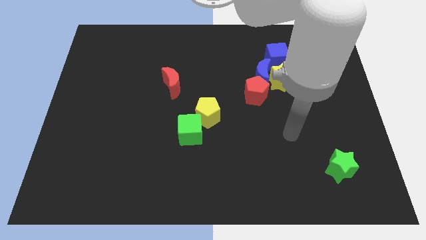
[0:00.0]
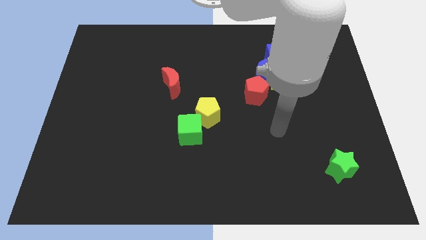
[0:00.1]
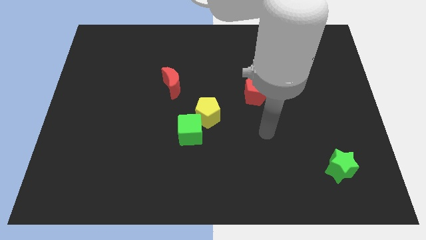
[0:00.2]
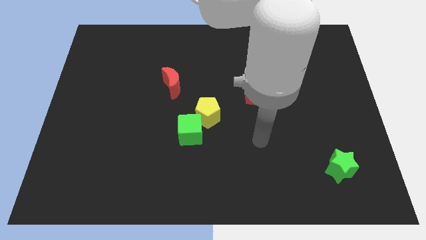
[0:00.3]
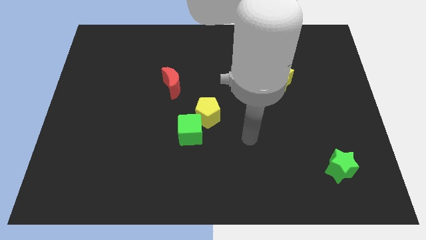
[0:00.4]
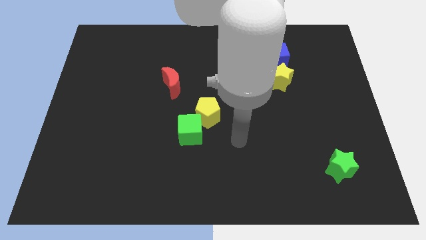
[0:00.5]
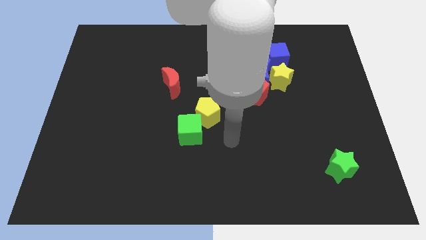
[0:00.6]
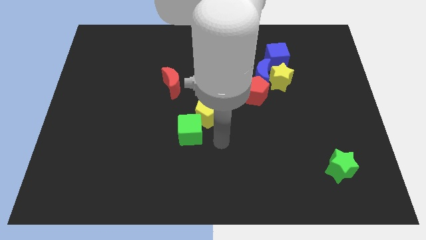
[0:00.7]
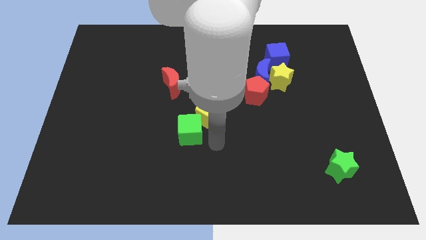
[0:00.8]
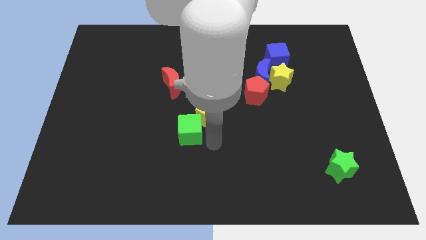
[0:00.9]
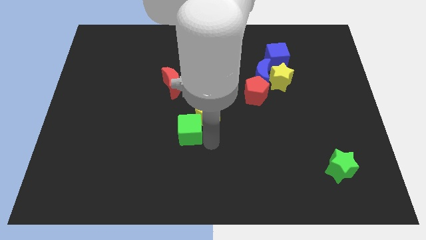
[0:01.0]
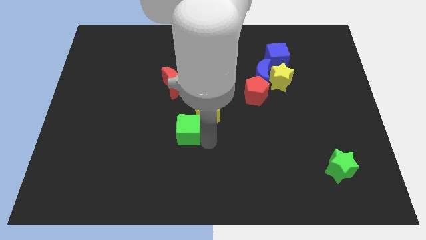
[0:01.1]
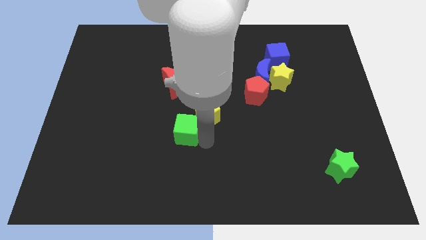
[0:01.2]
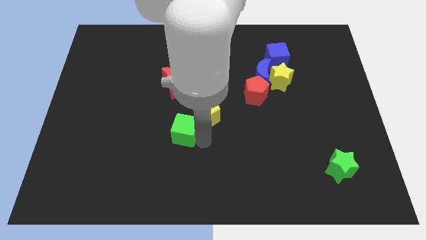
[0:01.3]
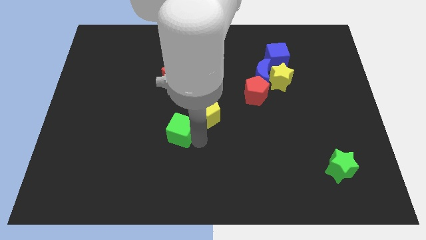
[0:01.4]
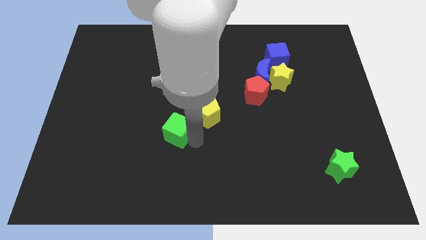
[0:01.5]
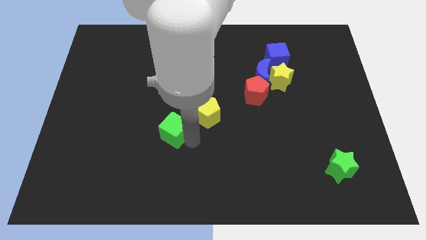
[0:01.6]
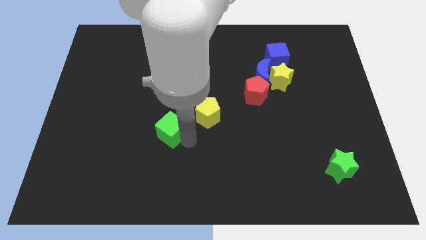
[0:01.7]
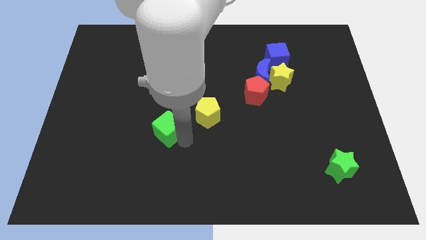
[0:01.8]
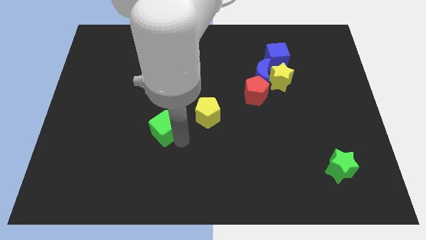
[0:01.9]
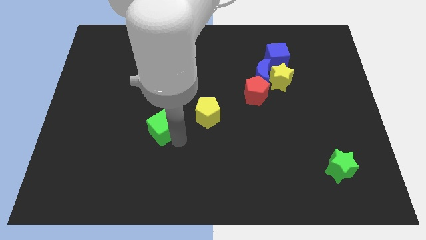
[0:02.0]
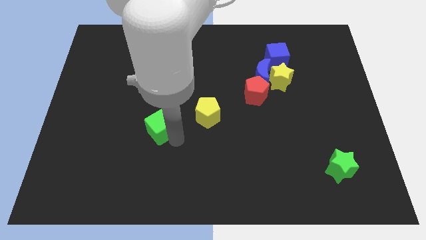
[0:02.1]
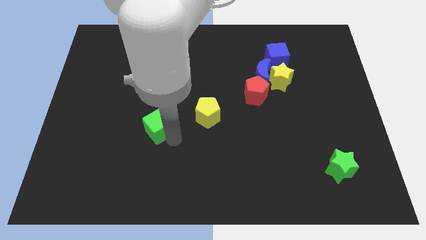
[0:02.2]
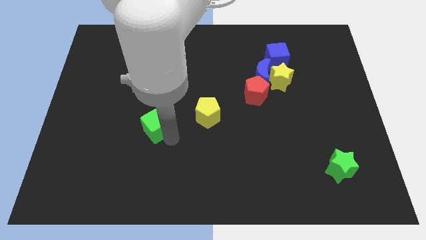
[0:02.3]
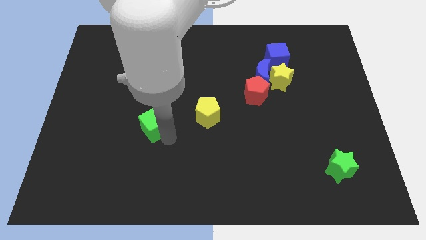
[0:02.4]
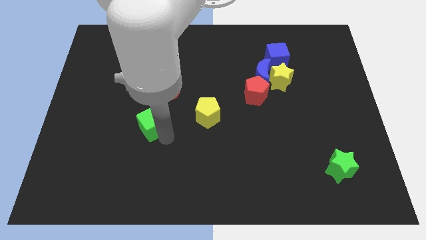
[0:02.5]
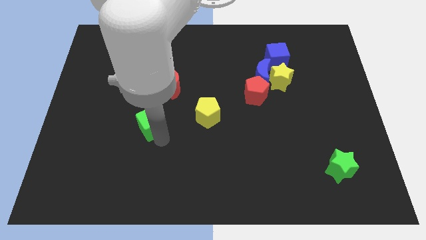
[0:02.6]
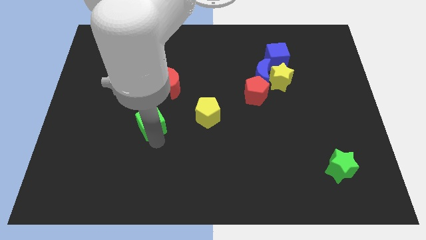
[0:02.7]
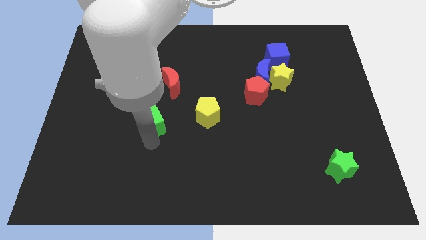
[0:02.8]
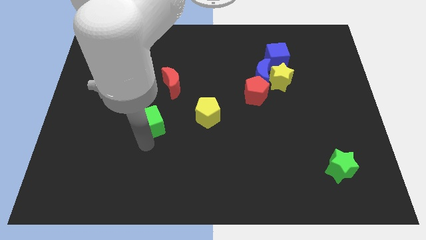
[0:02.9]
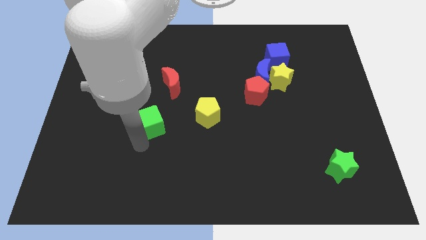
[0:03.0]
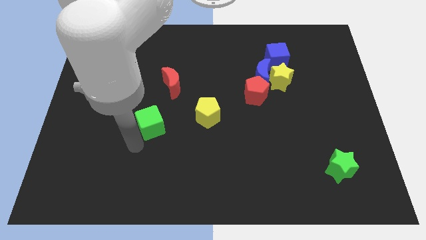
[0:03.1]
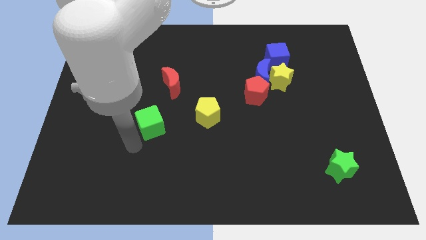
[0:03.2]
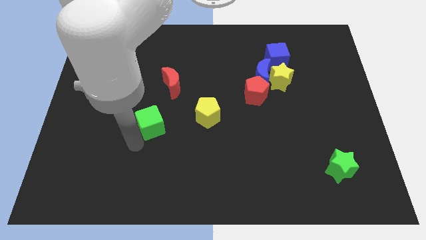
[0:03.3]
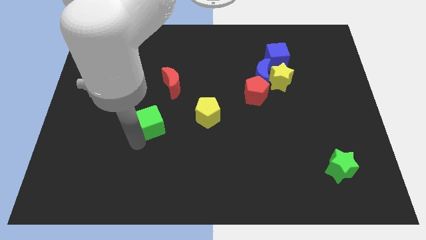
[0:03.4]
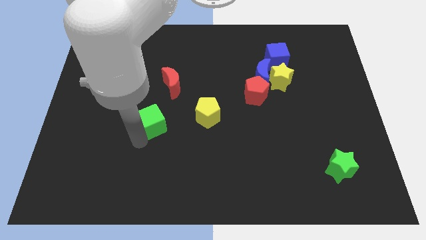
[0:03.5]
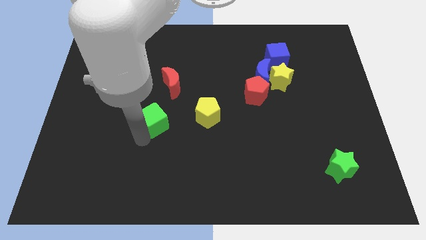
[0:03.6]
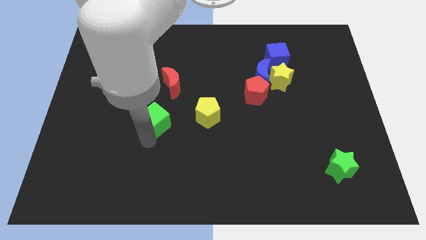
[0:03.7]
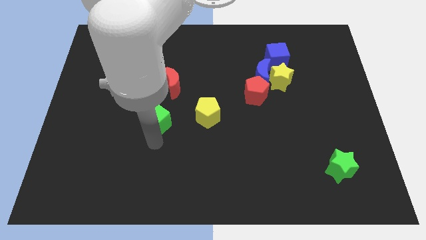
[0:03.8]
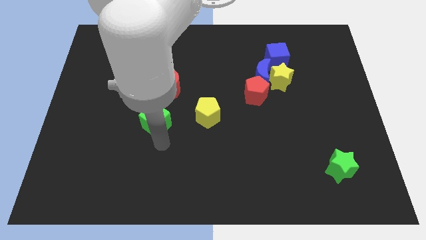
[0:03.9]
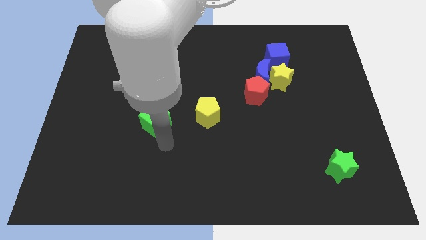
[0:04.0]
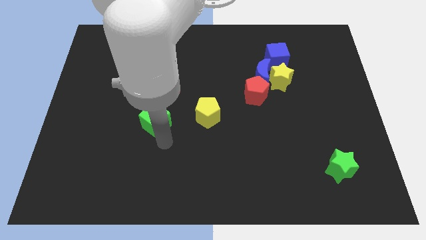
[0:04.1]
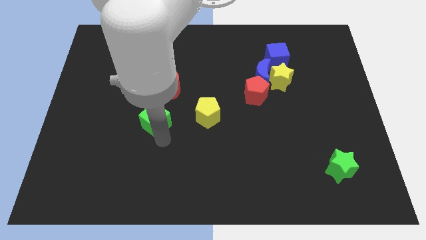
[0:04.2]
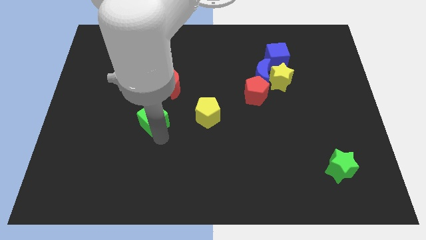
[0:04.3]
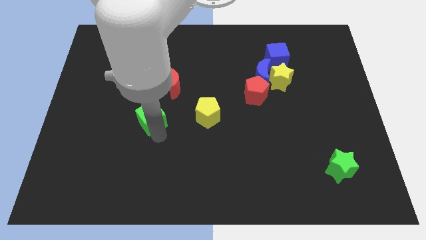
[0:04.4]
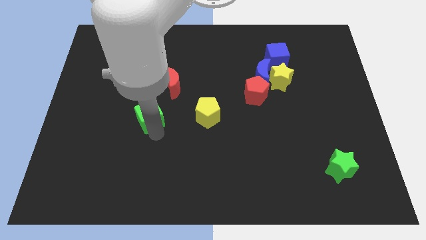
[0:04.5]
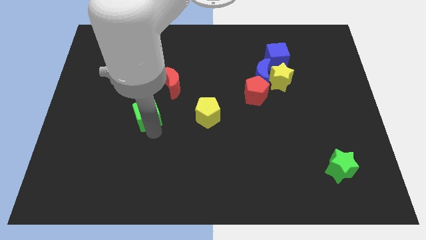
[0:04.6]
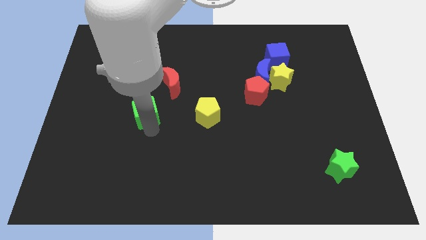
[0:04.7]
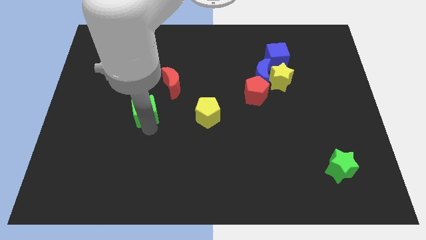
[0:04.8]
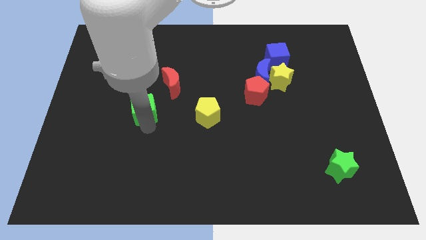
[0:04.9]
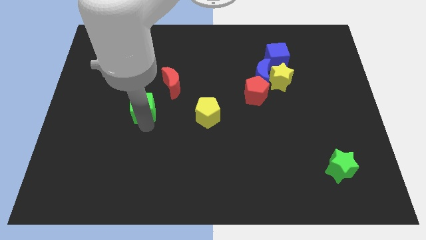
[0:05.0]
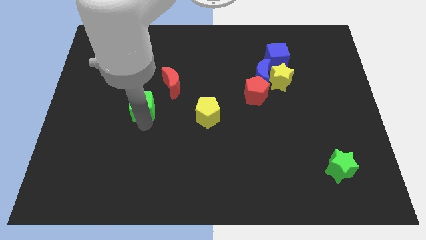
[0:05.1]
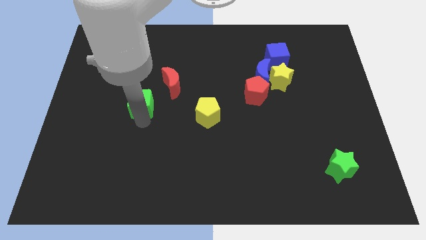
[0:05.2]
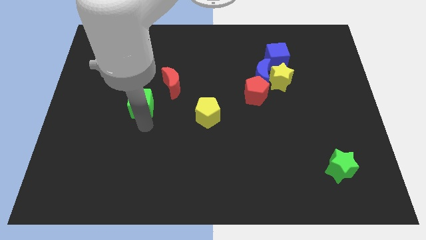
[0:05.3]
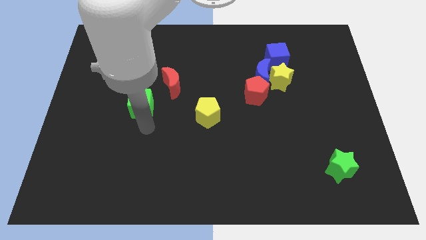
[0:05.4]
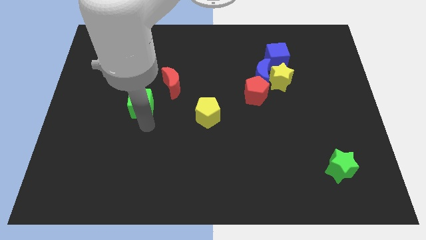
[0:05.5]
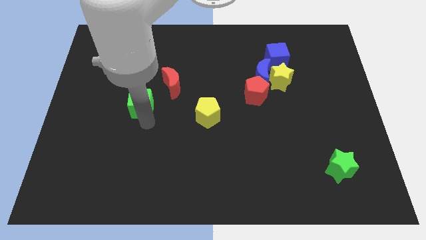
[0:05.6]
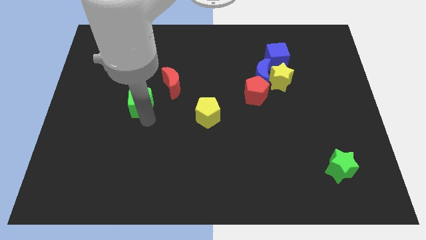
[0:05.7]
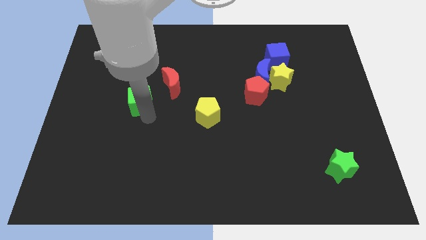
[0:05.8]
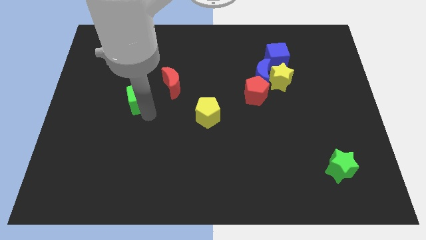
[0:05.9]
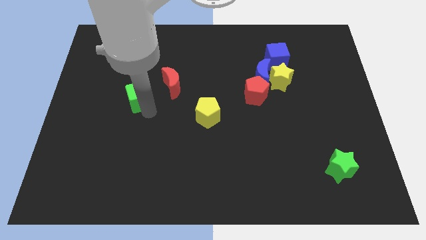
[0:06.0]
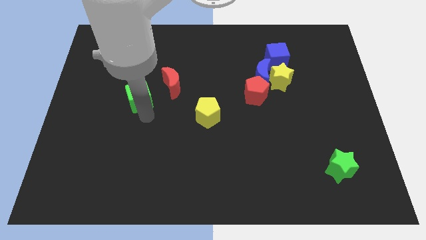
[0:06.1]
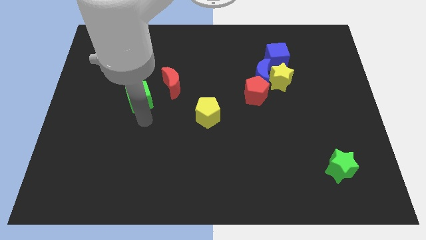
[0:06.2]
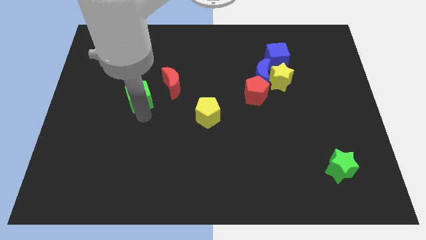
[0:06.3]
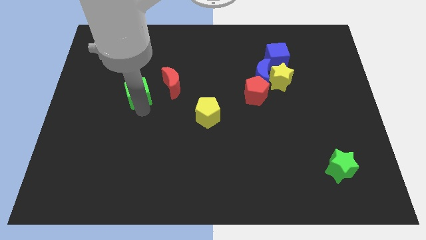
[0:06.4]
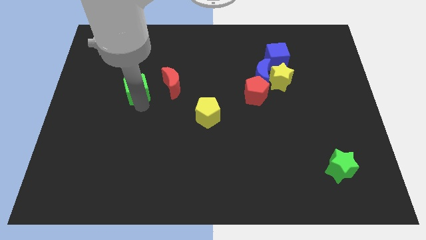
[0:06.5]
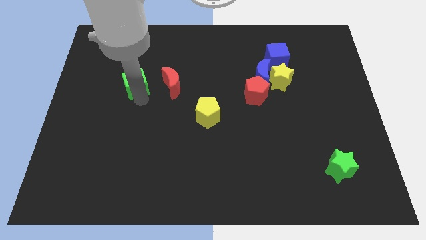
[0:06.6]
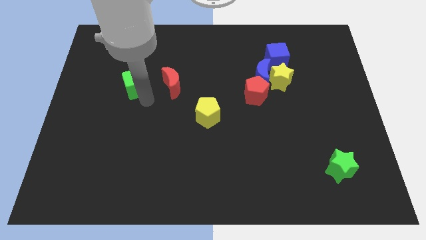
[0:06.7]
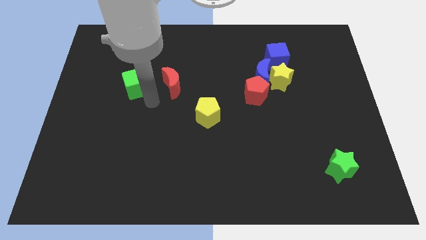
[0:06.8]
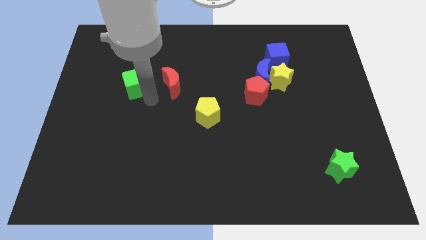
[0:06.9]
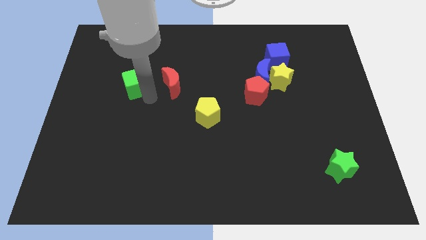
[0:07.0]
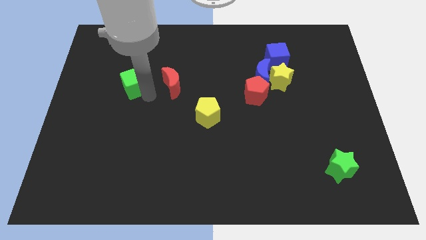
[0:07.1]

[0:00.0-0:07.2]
move the green cube up and then to the left

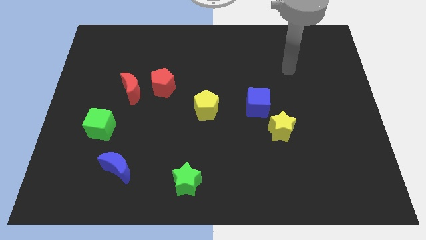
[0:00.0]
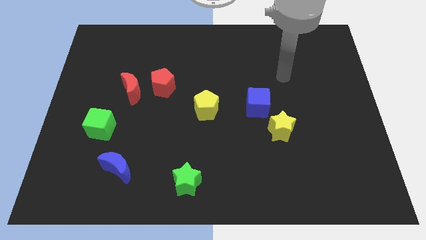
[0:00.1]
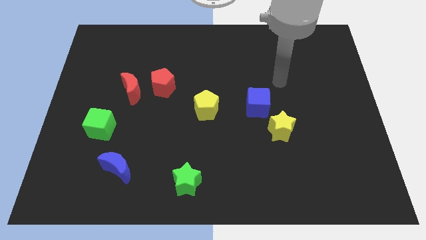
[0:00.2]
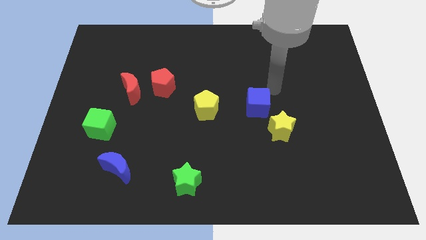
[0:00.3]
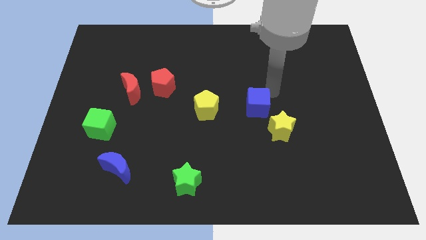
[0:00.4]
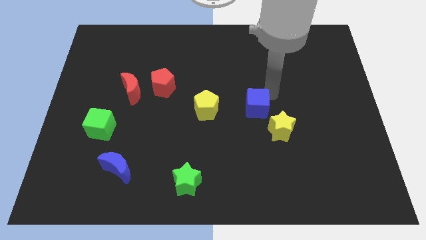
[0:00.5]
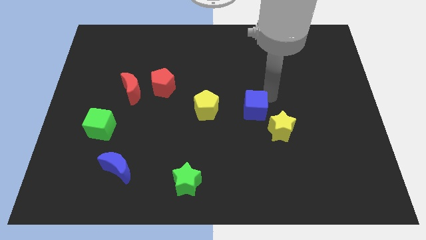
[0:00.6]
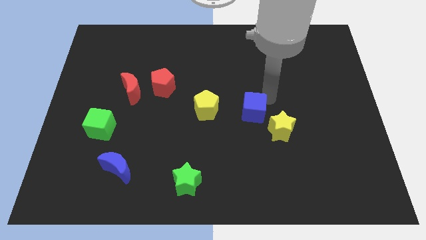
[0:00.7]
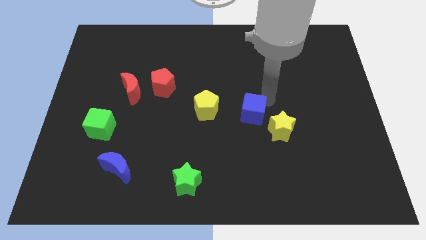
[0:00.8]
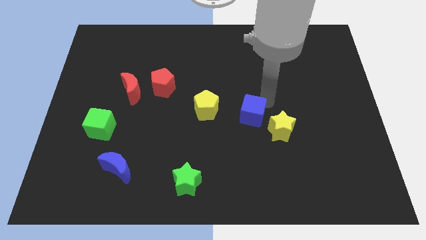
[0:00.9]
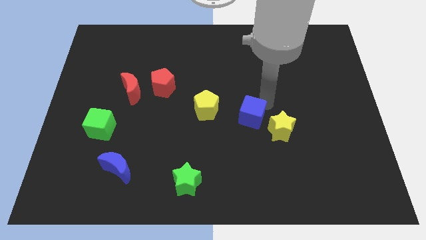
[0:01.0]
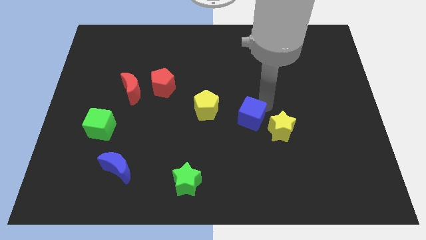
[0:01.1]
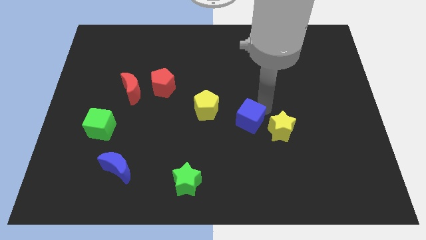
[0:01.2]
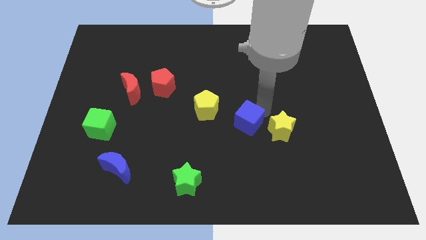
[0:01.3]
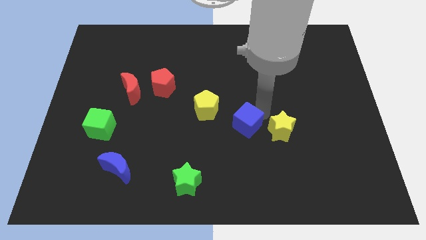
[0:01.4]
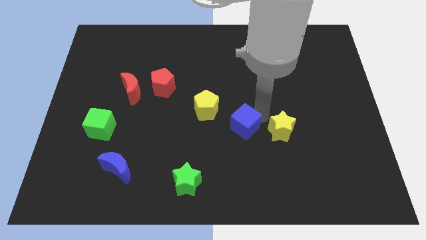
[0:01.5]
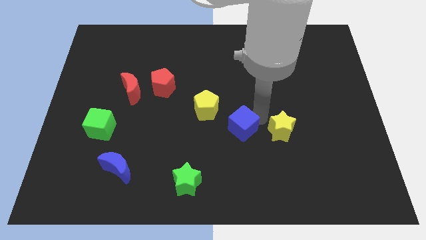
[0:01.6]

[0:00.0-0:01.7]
move the blue cube a bit down and then left
